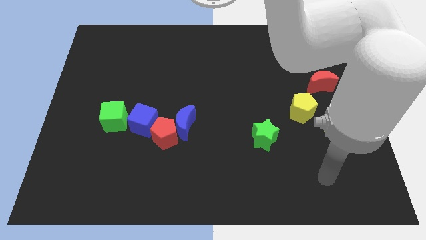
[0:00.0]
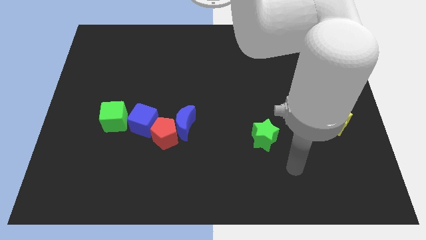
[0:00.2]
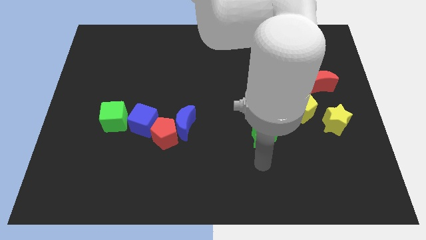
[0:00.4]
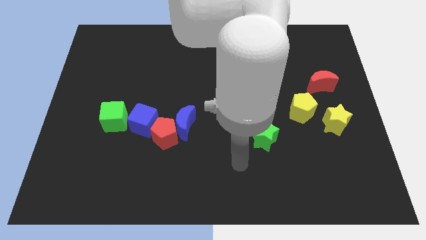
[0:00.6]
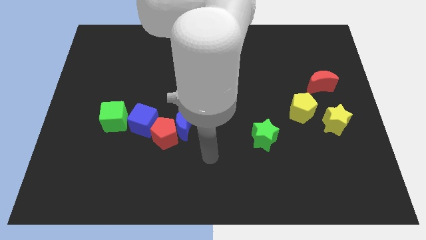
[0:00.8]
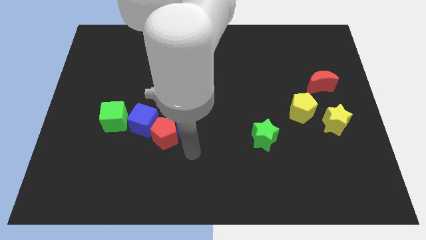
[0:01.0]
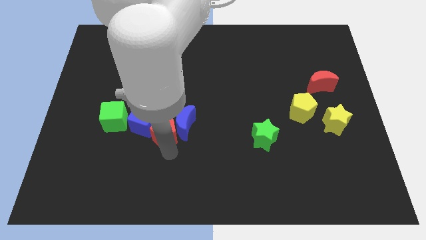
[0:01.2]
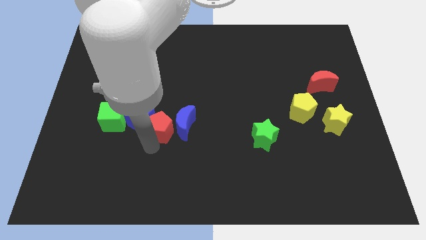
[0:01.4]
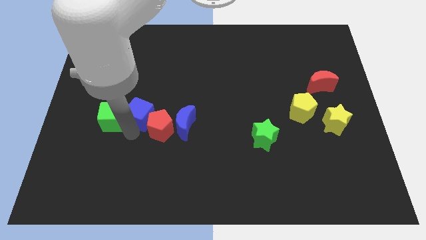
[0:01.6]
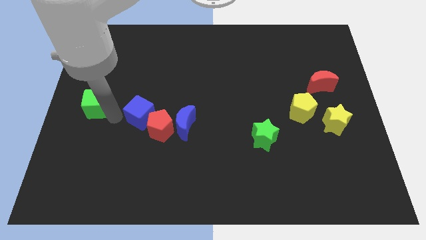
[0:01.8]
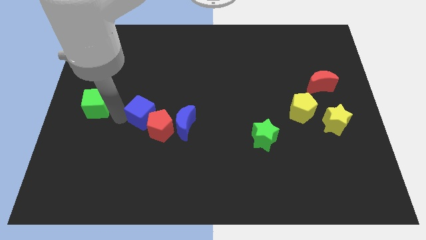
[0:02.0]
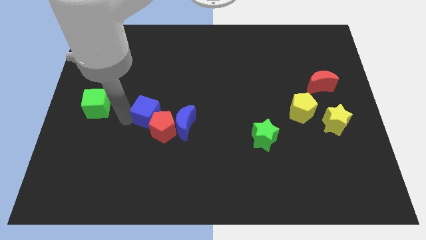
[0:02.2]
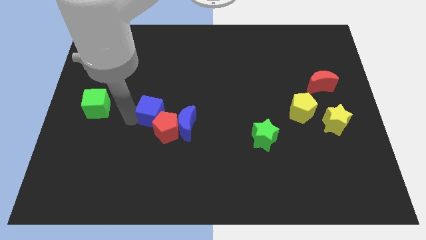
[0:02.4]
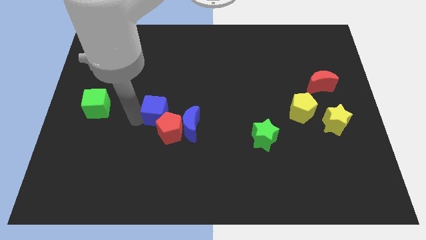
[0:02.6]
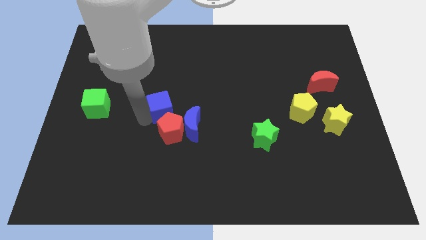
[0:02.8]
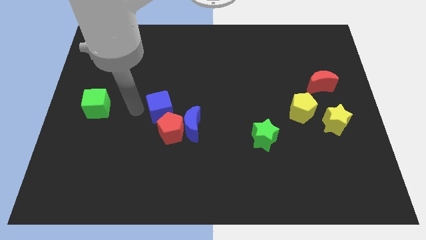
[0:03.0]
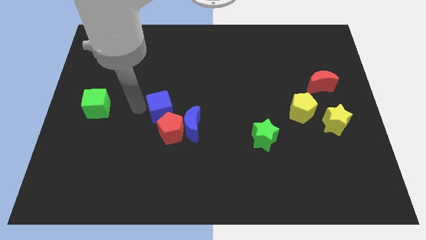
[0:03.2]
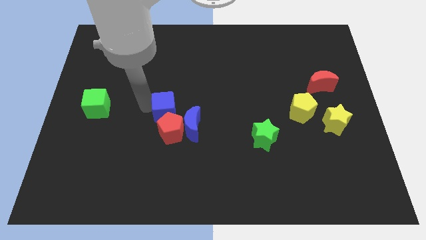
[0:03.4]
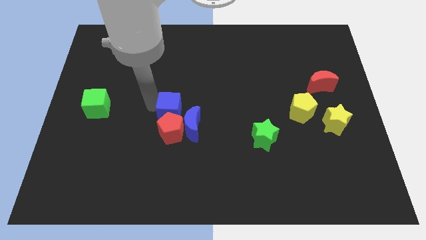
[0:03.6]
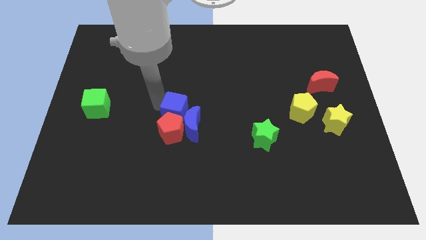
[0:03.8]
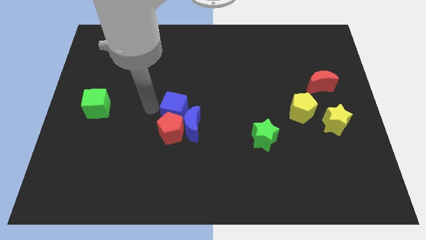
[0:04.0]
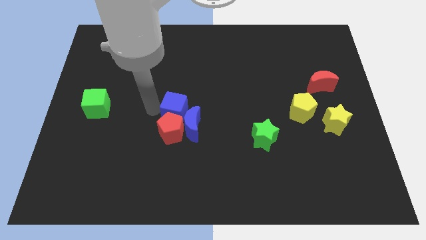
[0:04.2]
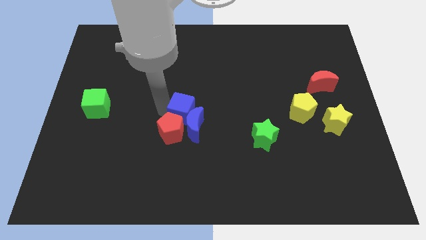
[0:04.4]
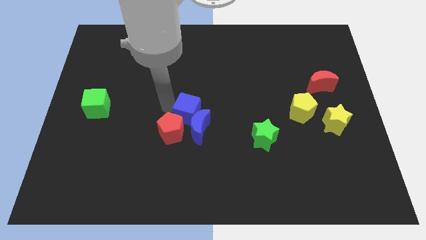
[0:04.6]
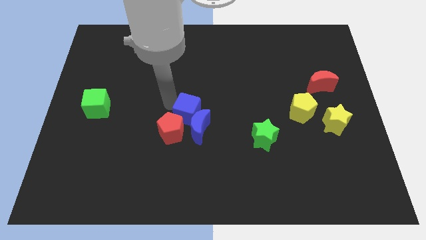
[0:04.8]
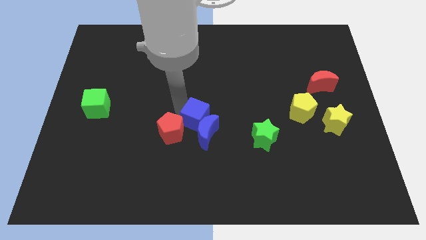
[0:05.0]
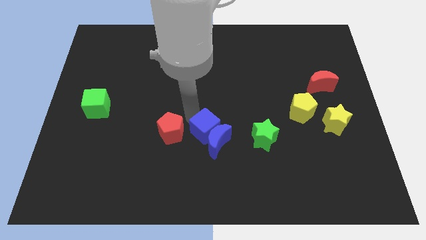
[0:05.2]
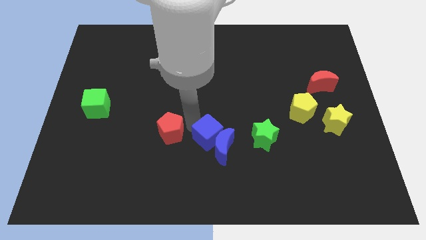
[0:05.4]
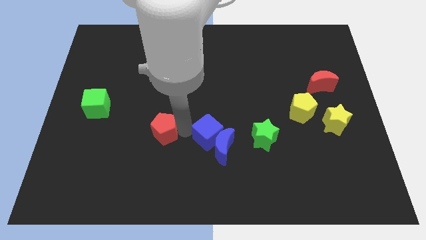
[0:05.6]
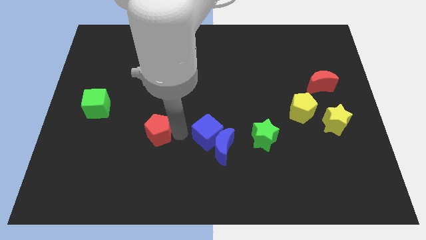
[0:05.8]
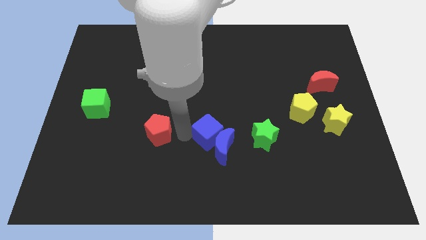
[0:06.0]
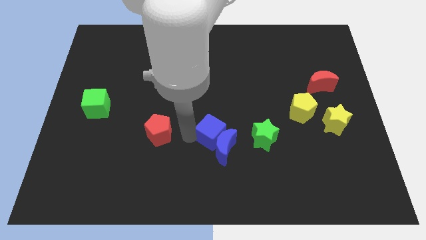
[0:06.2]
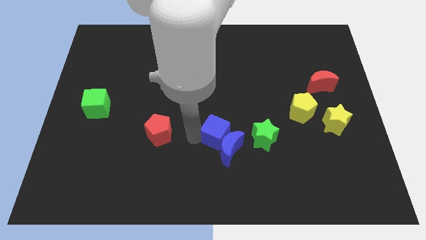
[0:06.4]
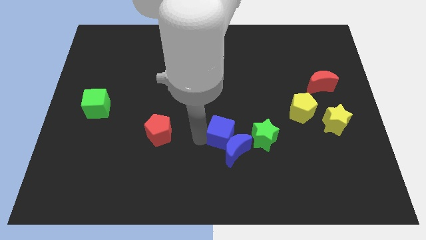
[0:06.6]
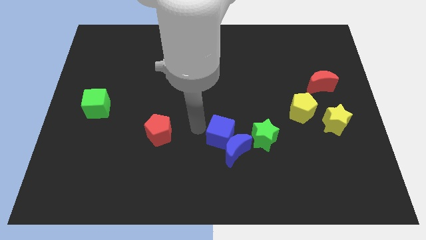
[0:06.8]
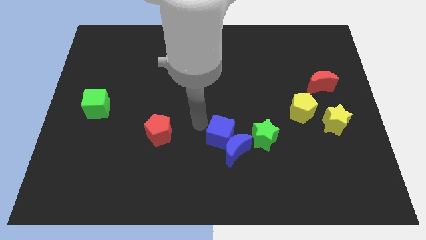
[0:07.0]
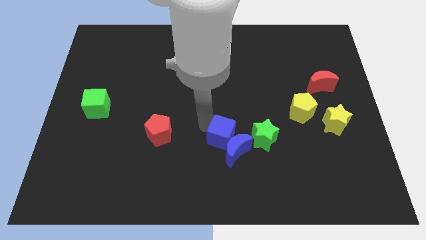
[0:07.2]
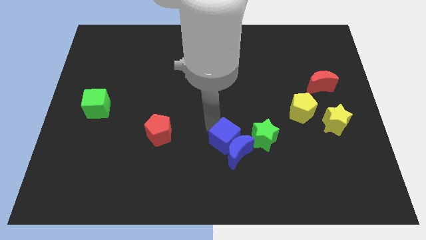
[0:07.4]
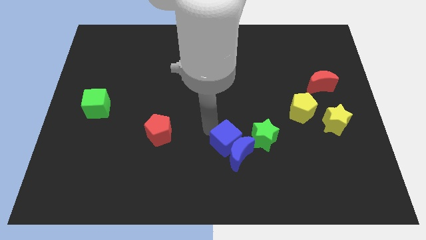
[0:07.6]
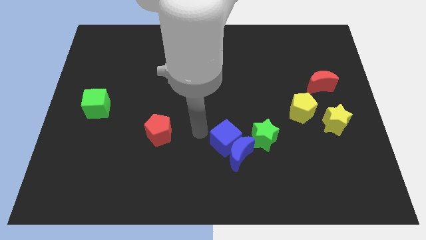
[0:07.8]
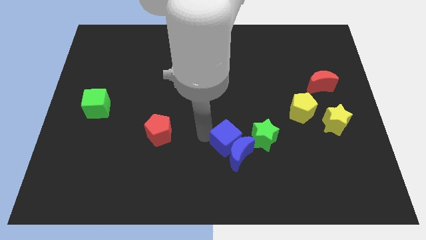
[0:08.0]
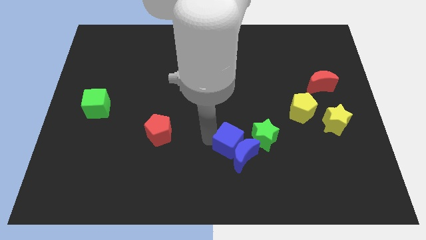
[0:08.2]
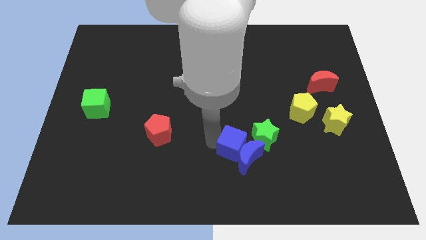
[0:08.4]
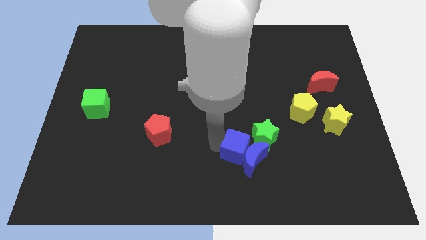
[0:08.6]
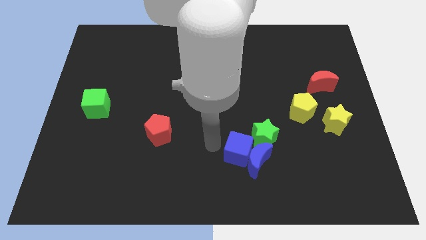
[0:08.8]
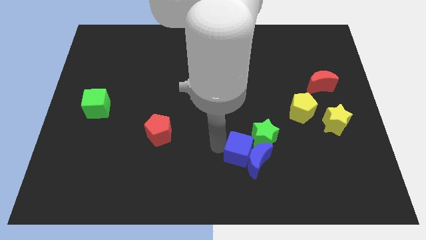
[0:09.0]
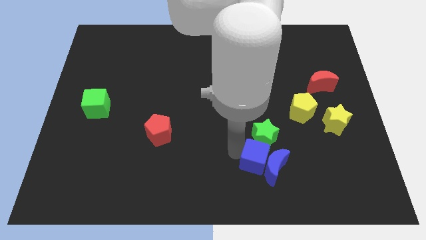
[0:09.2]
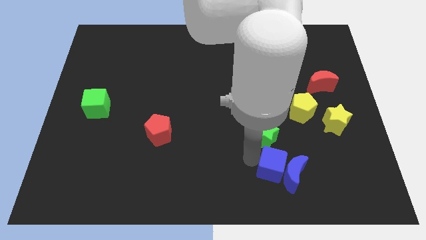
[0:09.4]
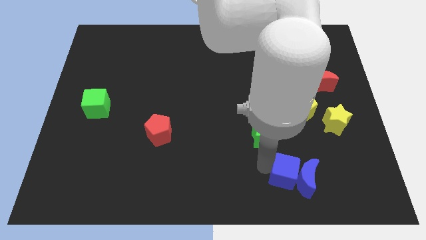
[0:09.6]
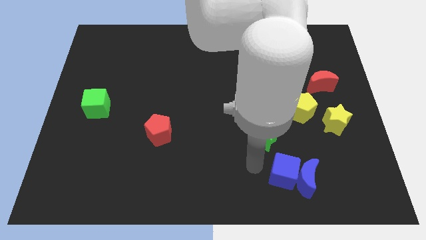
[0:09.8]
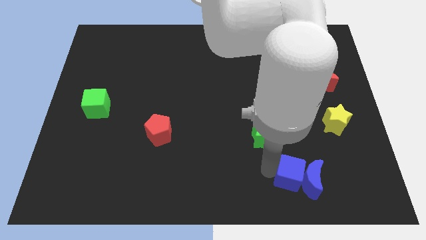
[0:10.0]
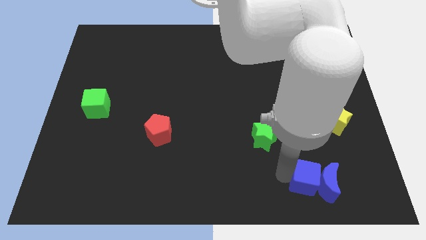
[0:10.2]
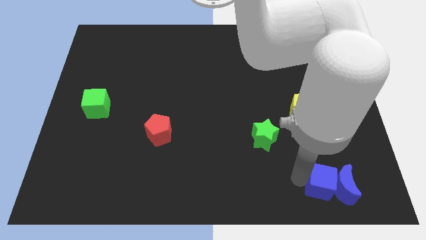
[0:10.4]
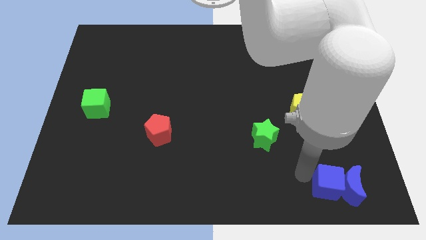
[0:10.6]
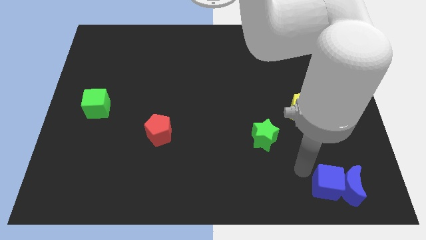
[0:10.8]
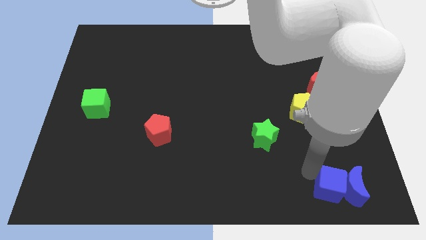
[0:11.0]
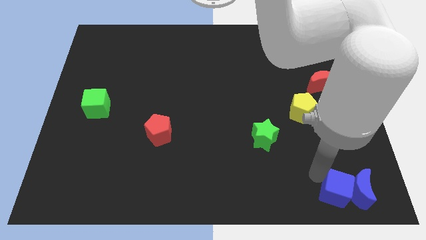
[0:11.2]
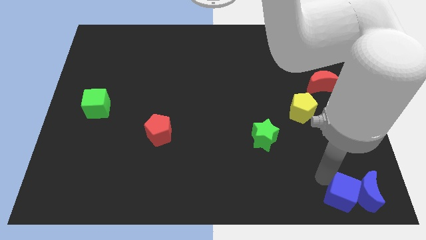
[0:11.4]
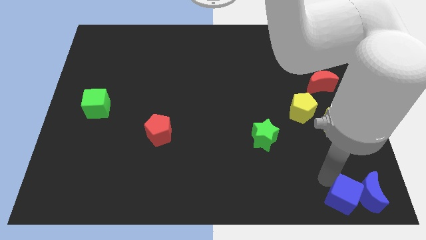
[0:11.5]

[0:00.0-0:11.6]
push the blue cube to the bottom right

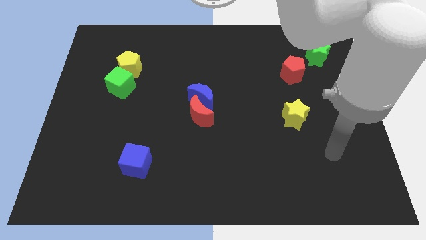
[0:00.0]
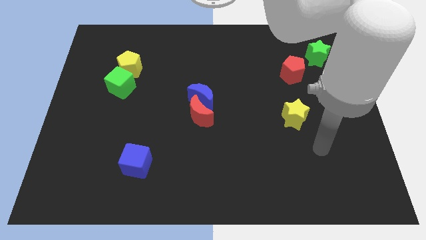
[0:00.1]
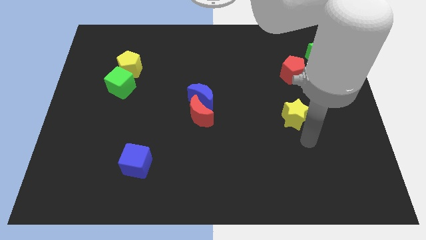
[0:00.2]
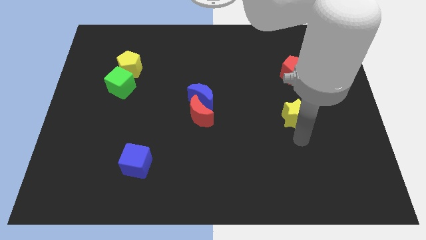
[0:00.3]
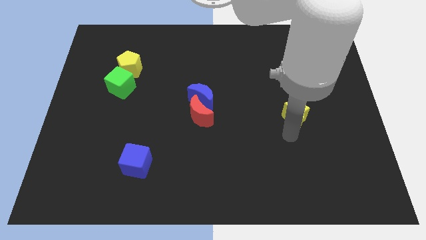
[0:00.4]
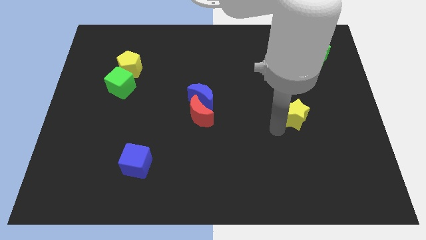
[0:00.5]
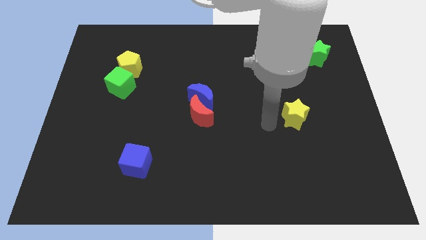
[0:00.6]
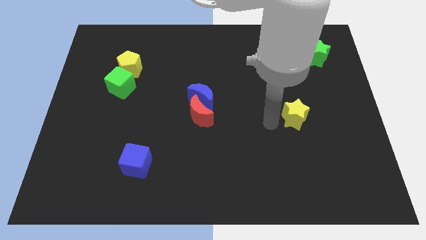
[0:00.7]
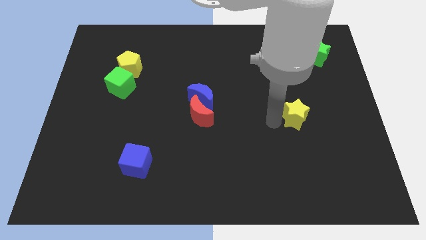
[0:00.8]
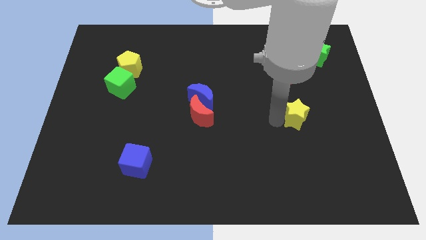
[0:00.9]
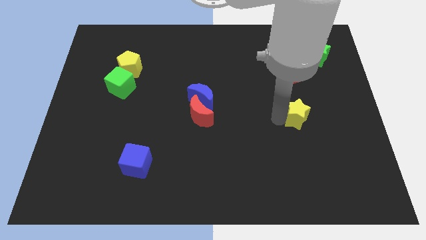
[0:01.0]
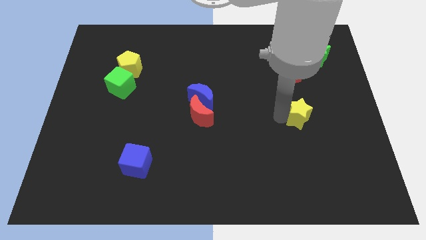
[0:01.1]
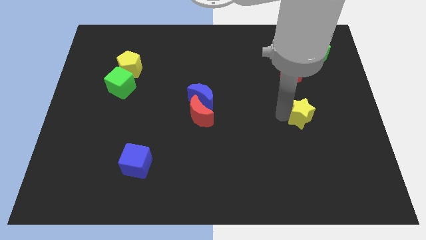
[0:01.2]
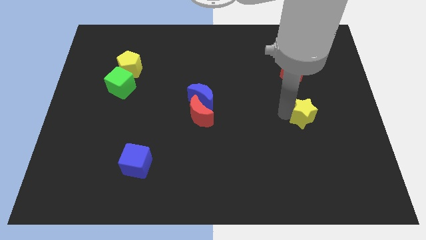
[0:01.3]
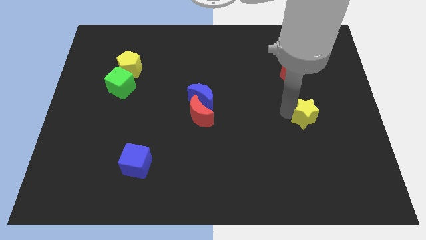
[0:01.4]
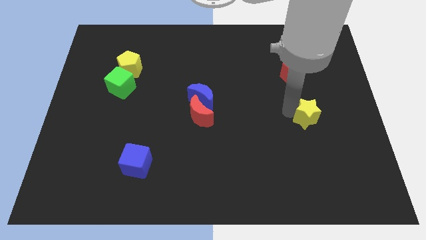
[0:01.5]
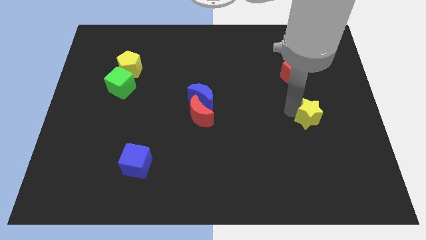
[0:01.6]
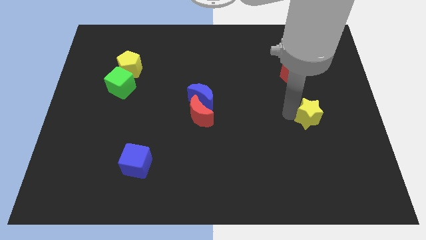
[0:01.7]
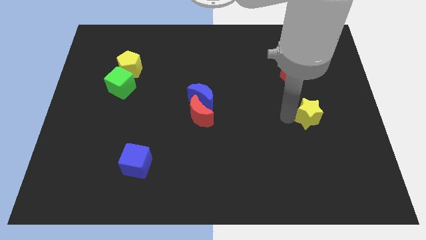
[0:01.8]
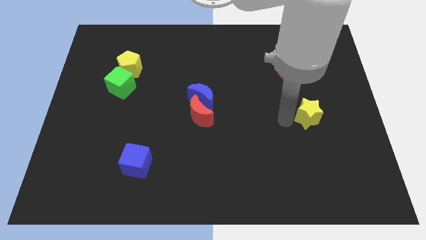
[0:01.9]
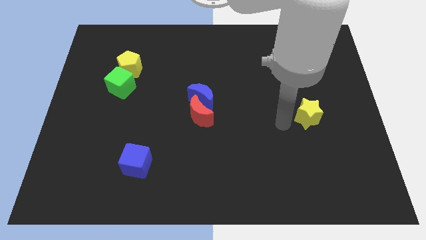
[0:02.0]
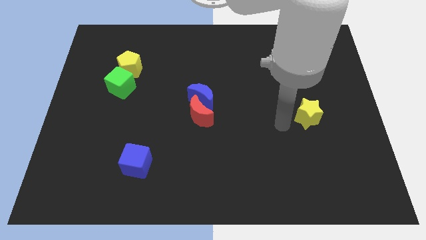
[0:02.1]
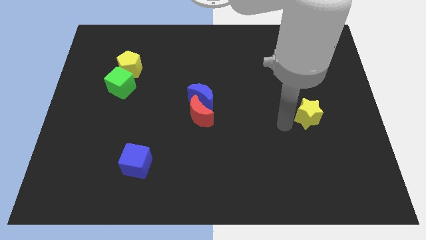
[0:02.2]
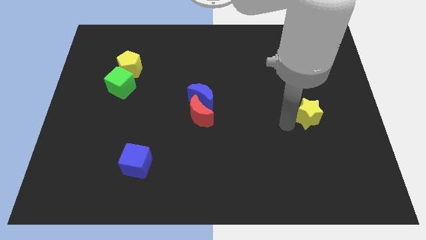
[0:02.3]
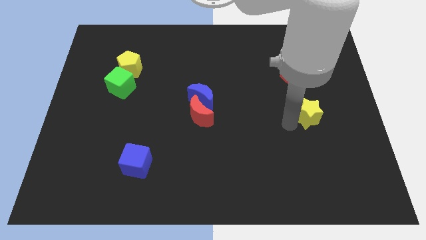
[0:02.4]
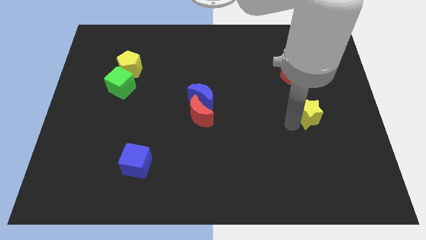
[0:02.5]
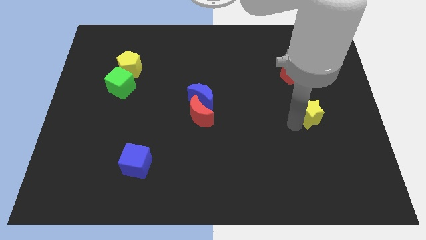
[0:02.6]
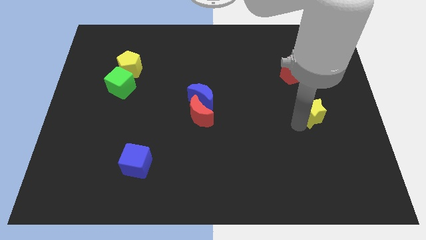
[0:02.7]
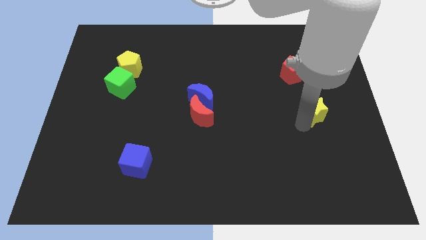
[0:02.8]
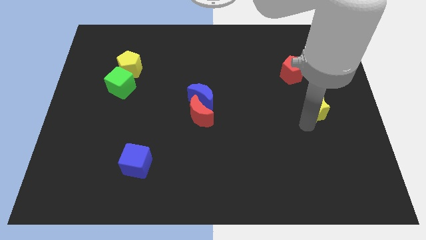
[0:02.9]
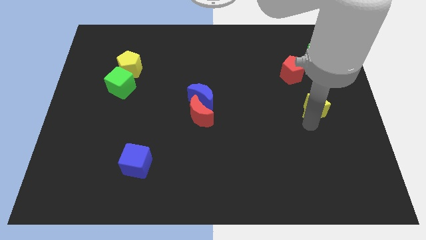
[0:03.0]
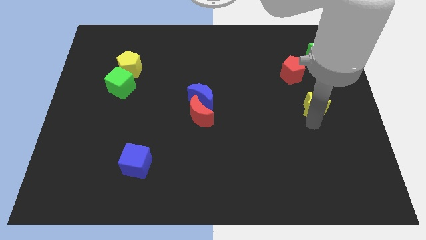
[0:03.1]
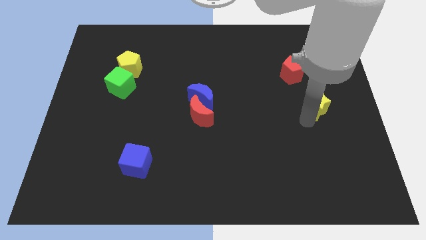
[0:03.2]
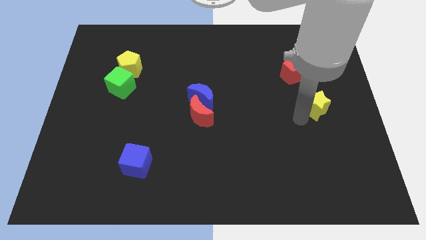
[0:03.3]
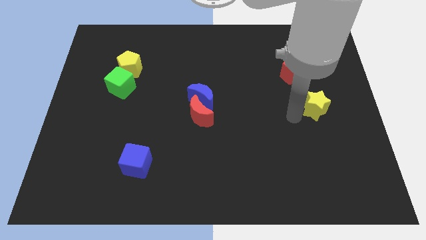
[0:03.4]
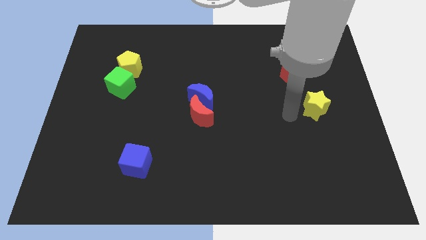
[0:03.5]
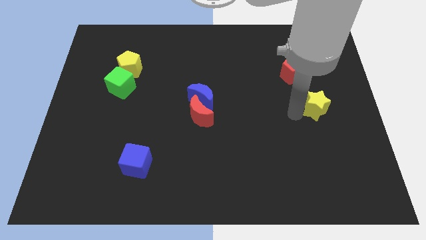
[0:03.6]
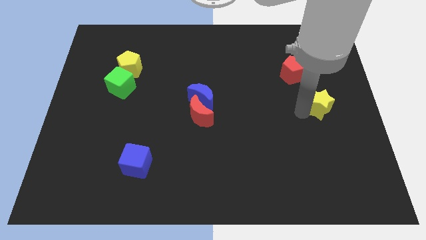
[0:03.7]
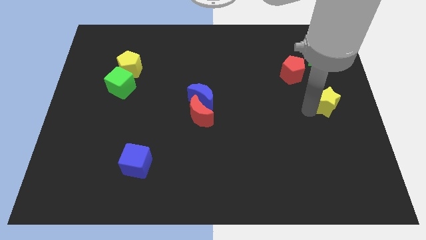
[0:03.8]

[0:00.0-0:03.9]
slide the yellow star to the right side
